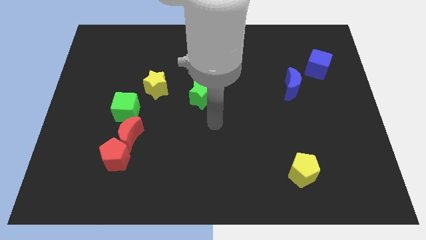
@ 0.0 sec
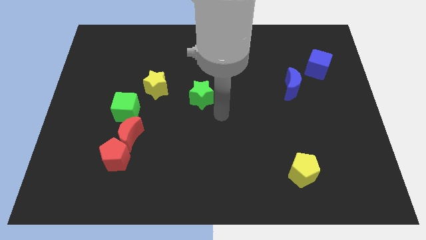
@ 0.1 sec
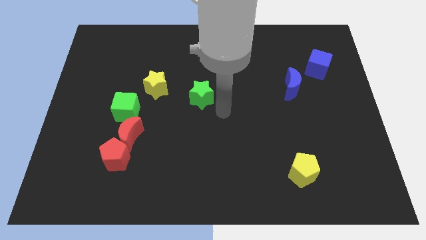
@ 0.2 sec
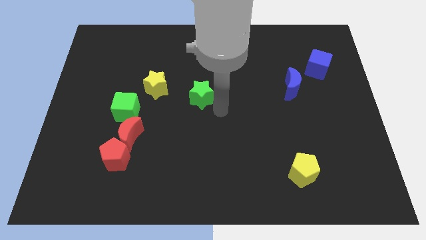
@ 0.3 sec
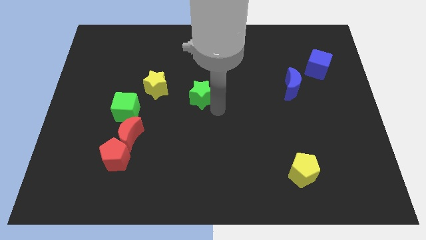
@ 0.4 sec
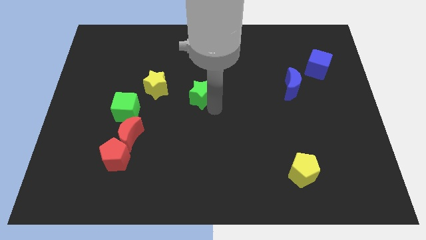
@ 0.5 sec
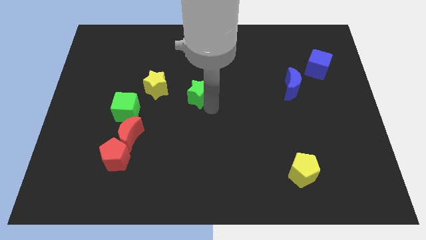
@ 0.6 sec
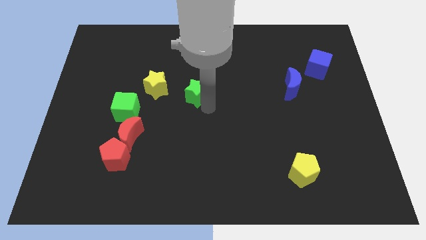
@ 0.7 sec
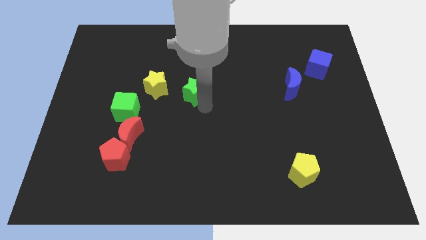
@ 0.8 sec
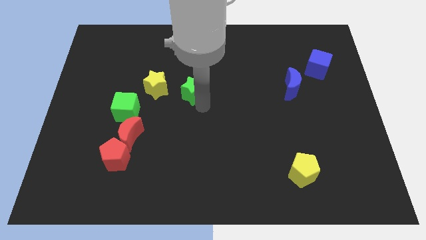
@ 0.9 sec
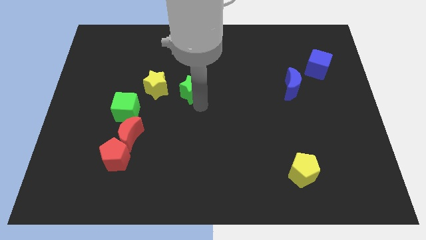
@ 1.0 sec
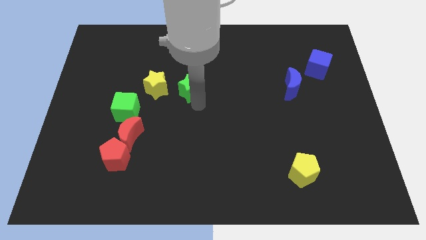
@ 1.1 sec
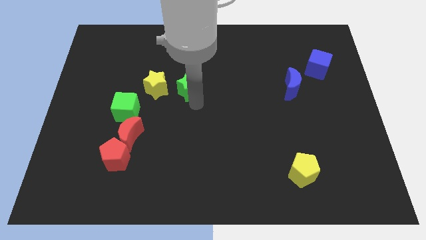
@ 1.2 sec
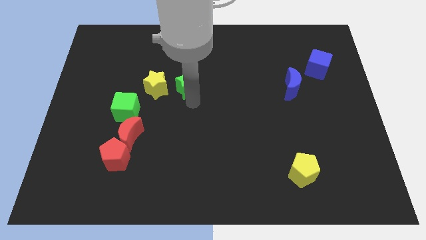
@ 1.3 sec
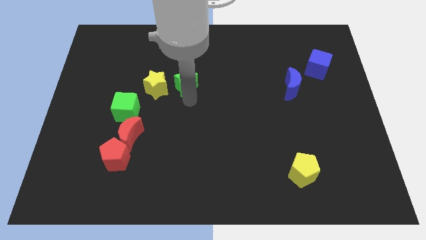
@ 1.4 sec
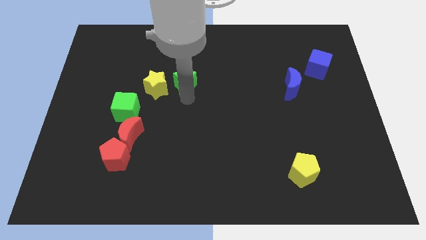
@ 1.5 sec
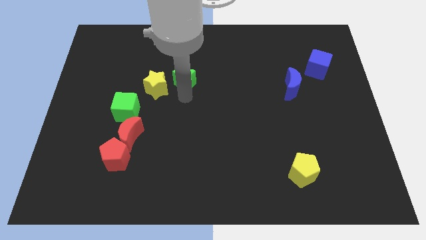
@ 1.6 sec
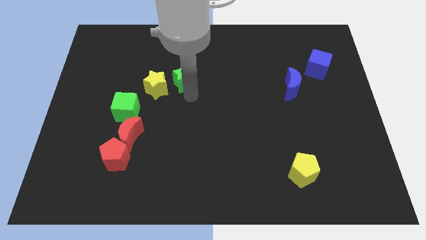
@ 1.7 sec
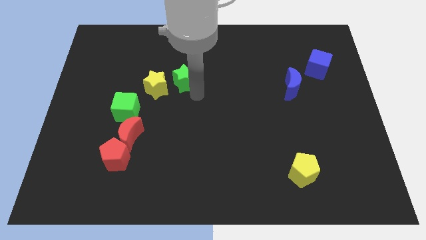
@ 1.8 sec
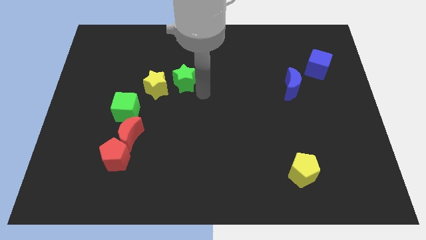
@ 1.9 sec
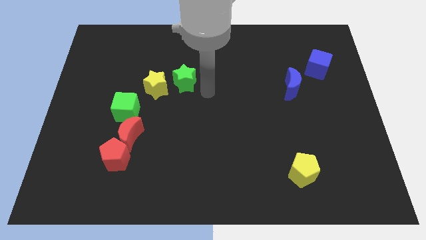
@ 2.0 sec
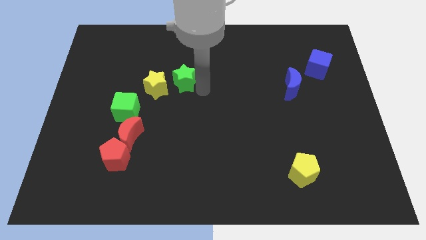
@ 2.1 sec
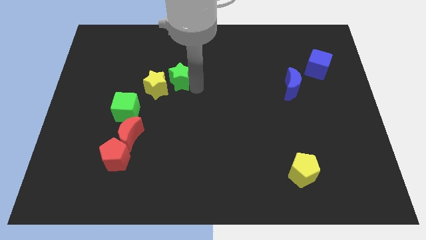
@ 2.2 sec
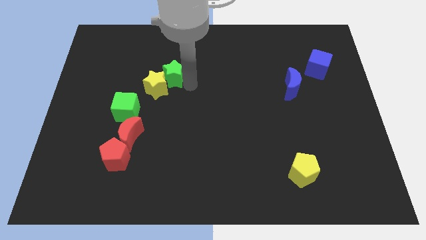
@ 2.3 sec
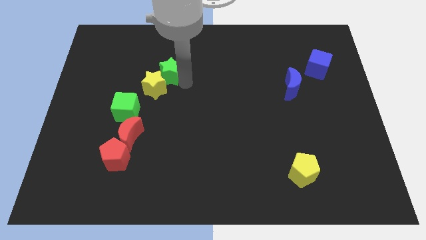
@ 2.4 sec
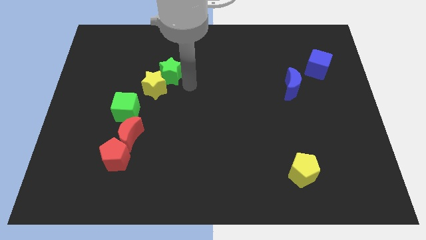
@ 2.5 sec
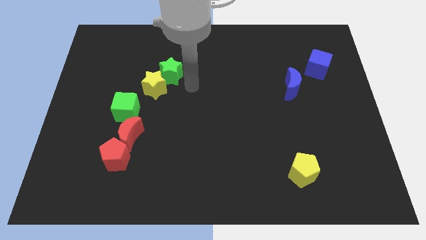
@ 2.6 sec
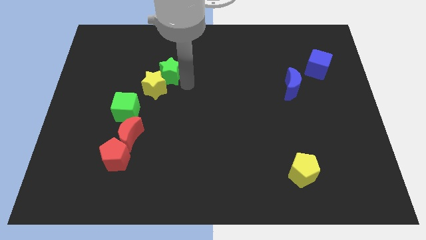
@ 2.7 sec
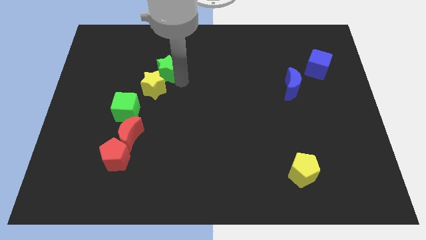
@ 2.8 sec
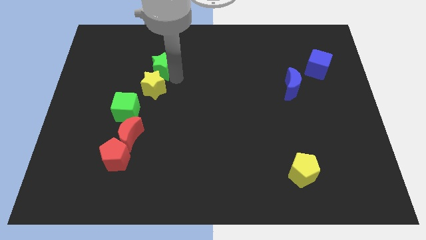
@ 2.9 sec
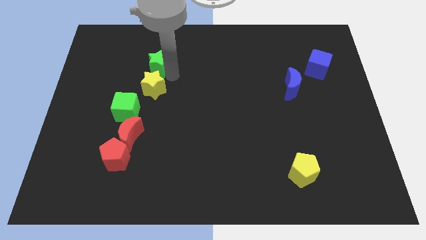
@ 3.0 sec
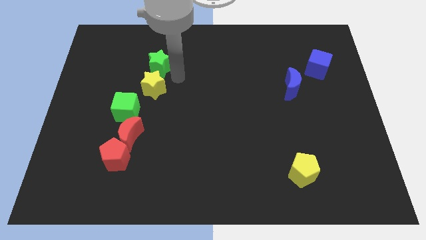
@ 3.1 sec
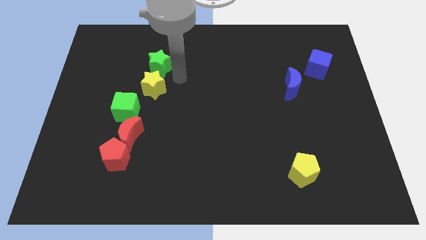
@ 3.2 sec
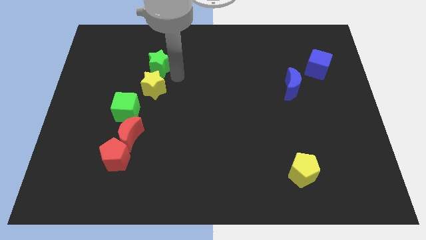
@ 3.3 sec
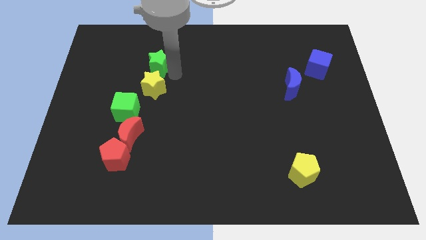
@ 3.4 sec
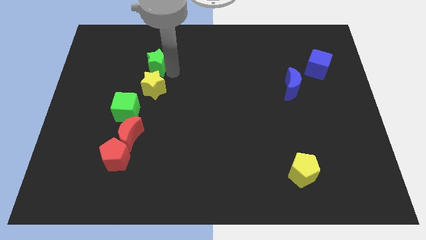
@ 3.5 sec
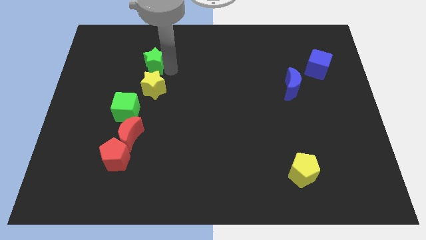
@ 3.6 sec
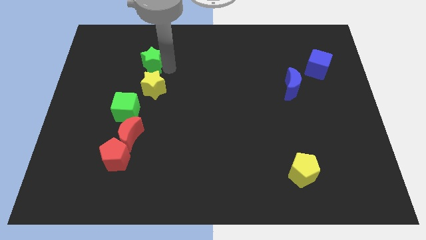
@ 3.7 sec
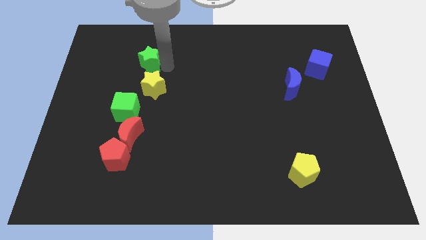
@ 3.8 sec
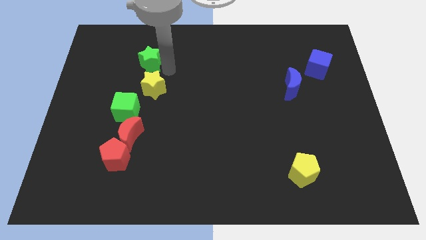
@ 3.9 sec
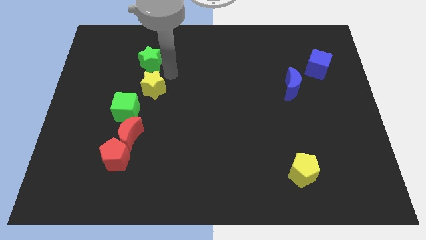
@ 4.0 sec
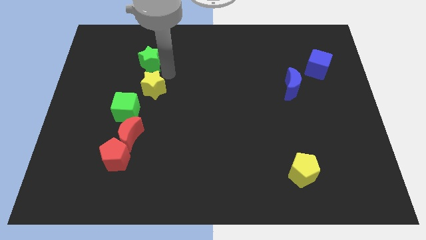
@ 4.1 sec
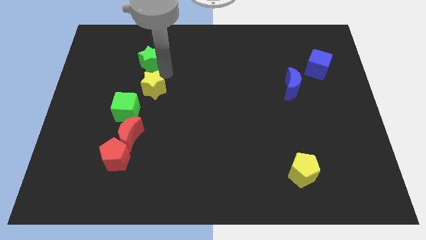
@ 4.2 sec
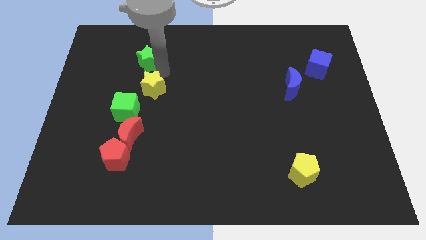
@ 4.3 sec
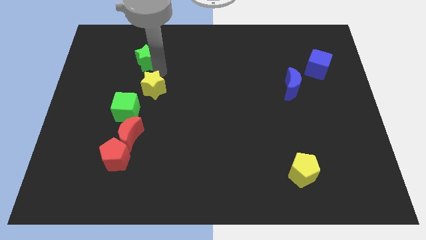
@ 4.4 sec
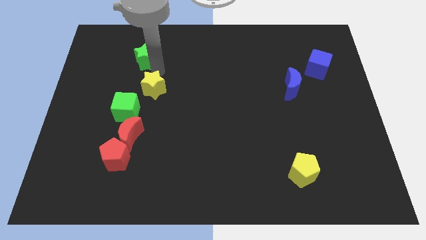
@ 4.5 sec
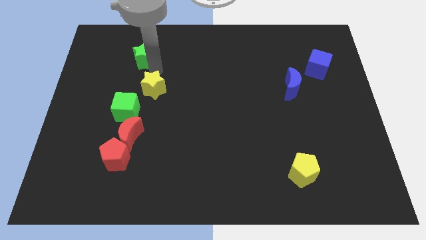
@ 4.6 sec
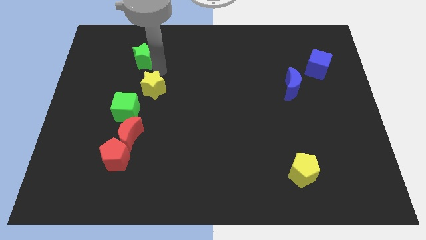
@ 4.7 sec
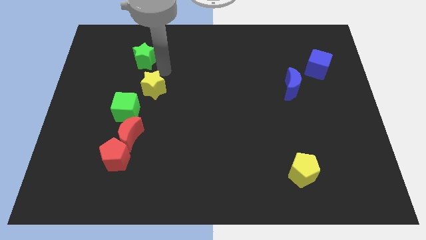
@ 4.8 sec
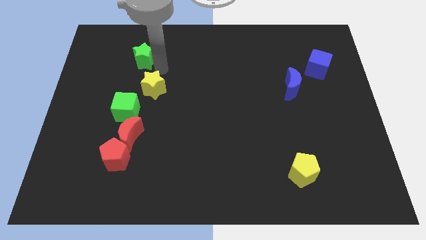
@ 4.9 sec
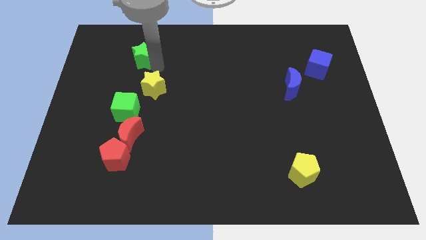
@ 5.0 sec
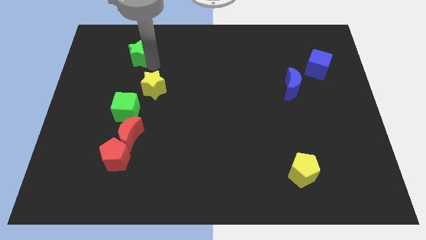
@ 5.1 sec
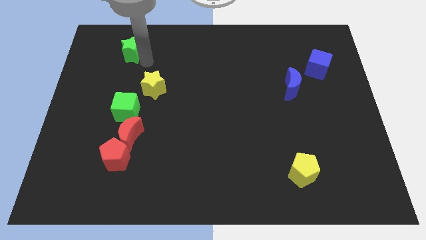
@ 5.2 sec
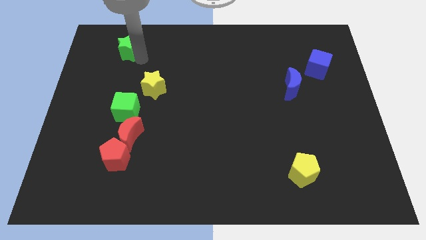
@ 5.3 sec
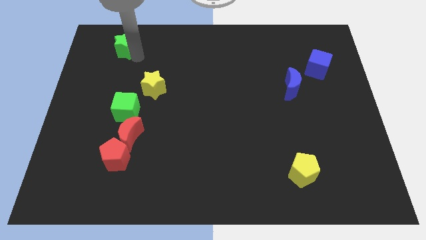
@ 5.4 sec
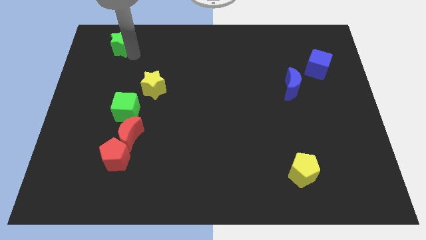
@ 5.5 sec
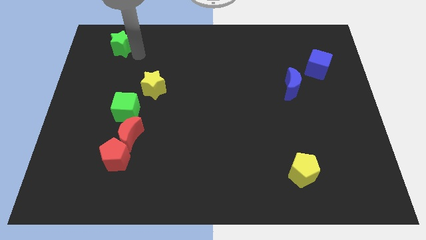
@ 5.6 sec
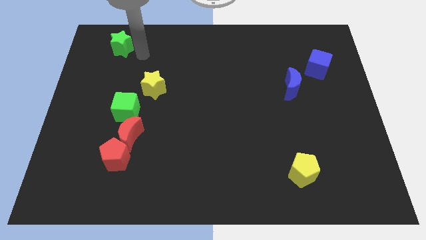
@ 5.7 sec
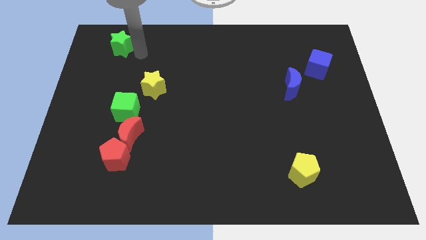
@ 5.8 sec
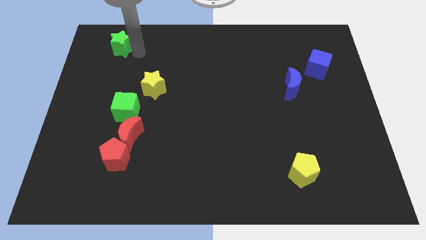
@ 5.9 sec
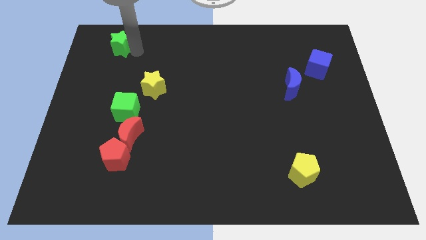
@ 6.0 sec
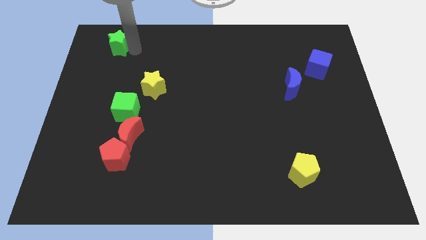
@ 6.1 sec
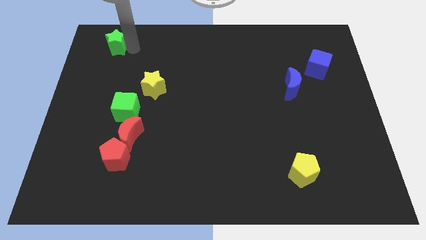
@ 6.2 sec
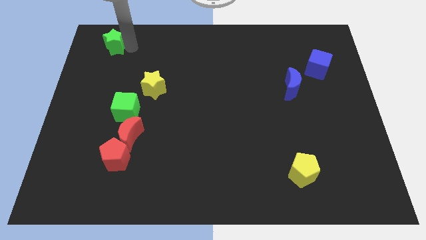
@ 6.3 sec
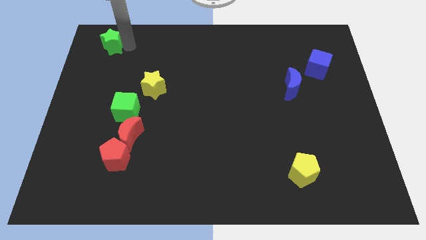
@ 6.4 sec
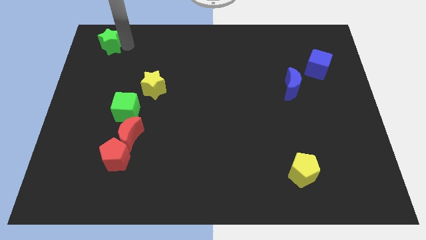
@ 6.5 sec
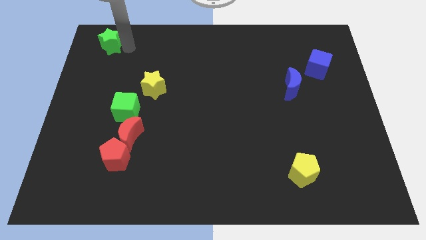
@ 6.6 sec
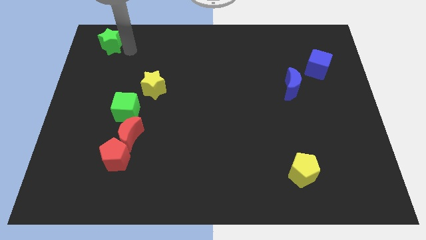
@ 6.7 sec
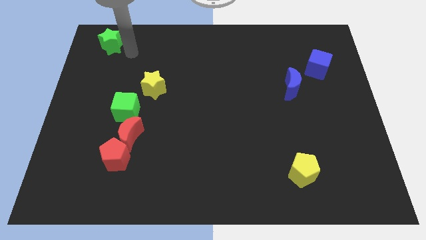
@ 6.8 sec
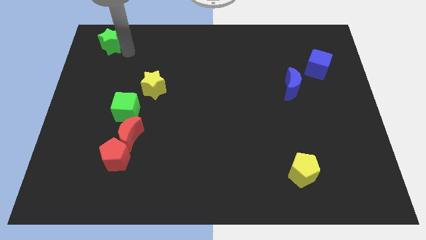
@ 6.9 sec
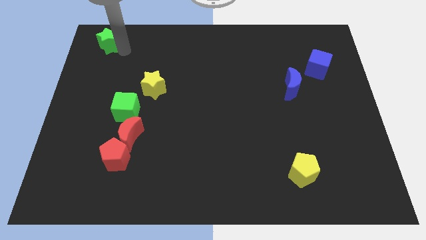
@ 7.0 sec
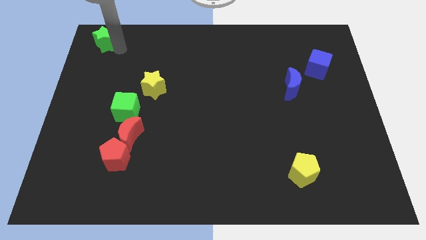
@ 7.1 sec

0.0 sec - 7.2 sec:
move the green star to the top left of the board
